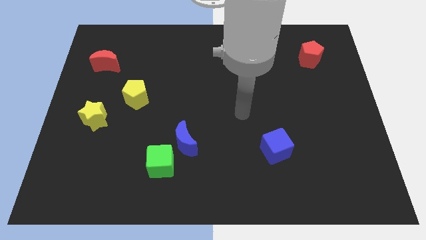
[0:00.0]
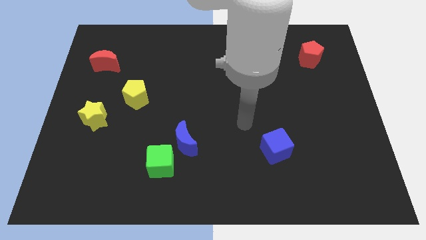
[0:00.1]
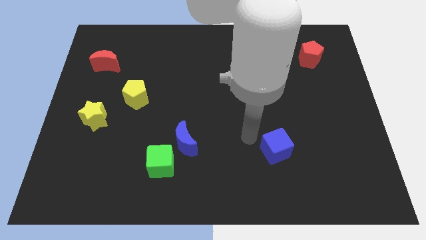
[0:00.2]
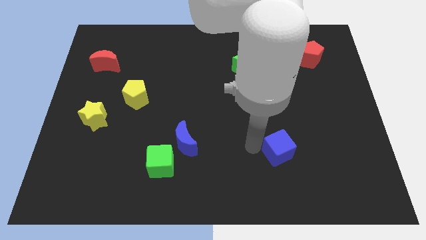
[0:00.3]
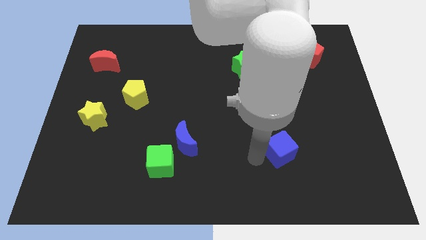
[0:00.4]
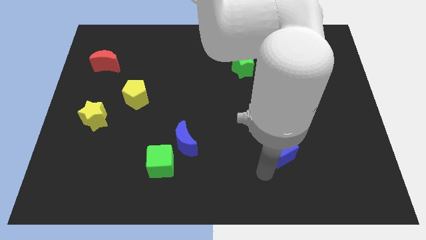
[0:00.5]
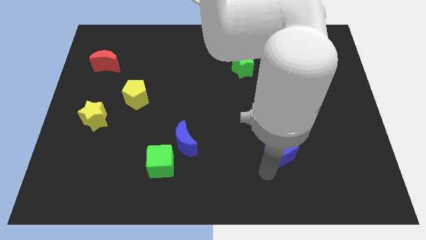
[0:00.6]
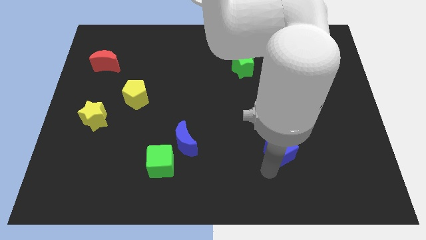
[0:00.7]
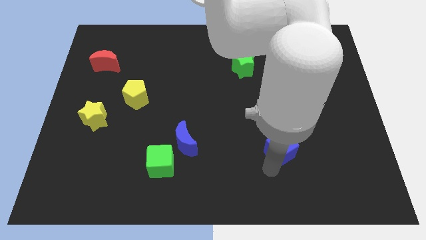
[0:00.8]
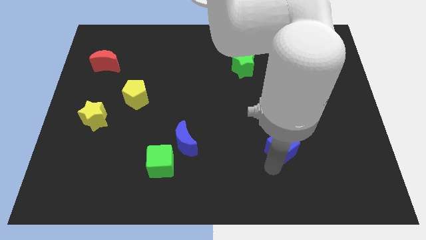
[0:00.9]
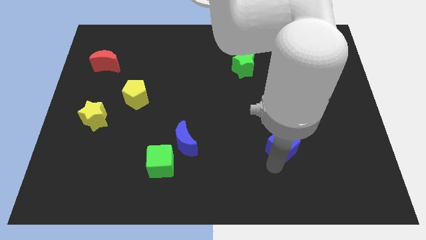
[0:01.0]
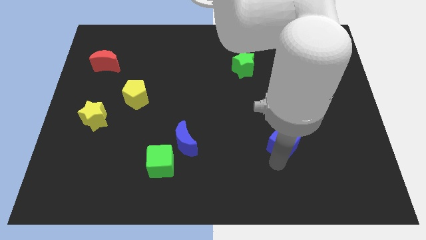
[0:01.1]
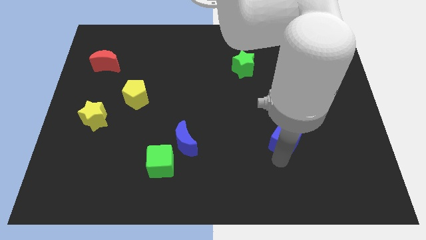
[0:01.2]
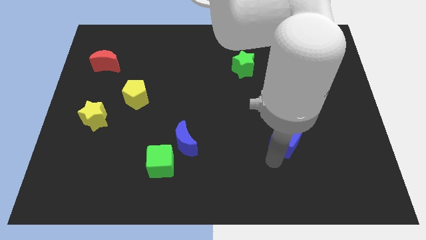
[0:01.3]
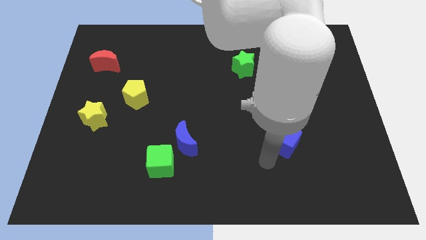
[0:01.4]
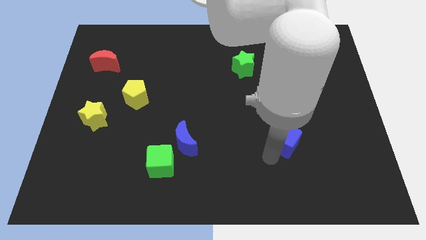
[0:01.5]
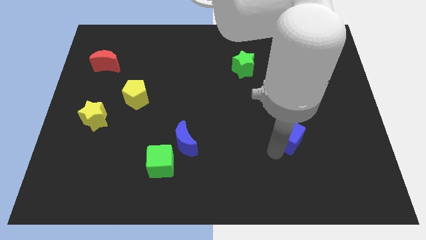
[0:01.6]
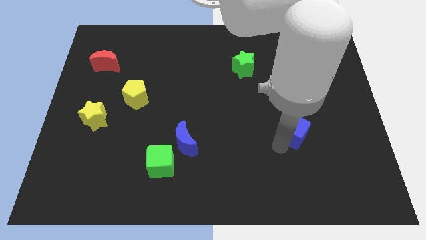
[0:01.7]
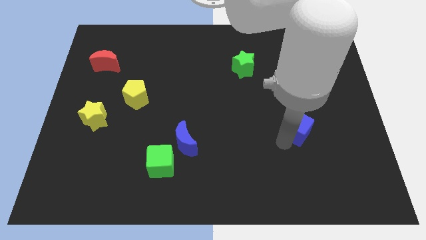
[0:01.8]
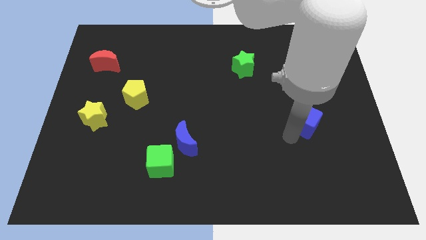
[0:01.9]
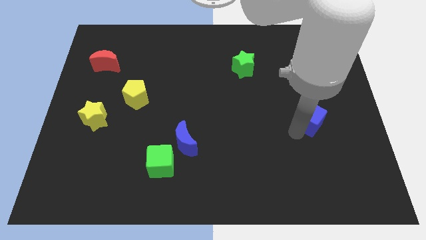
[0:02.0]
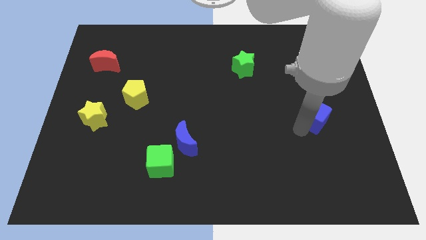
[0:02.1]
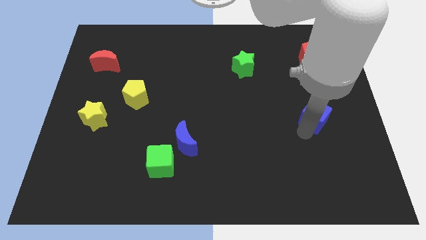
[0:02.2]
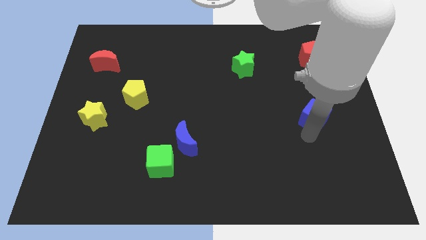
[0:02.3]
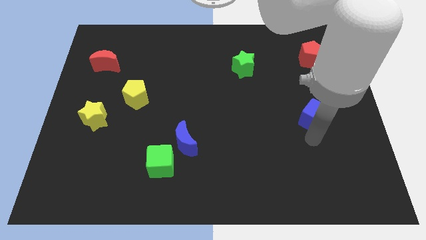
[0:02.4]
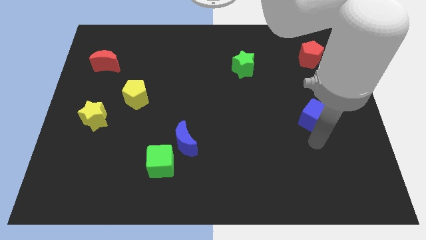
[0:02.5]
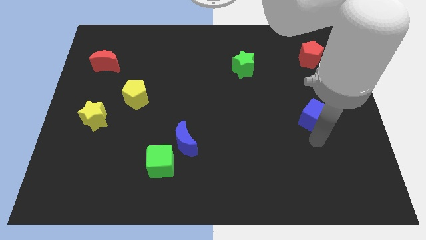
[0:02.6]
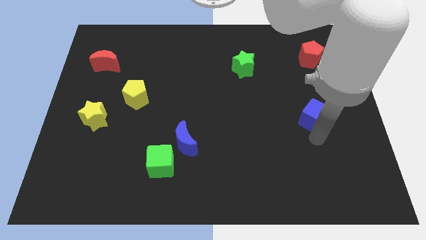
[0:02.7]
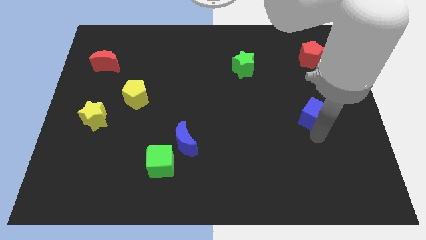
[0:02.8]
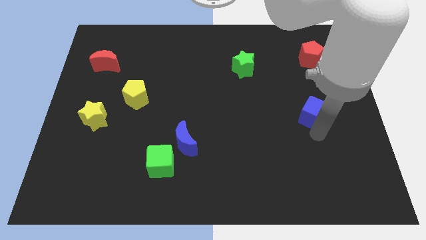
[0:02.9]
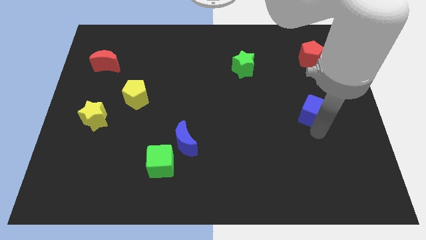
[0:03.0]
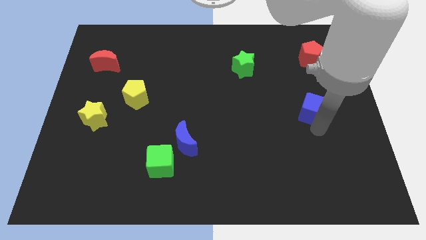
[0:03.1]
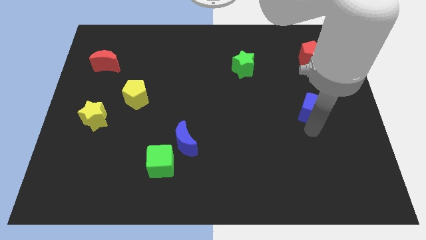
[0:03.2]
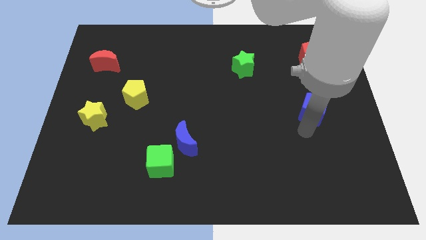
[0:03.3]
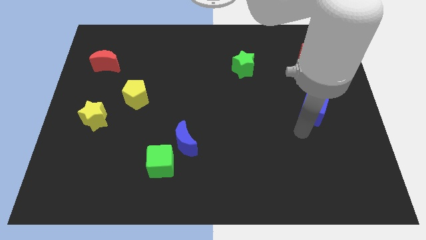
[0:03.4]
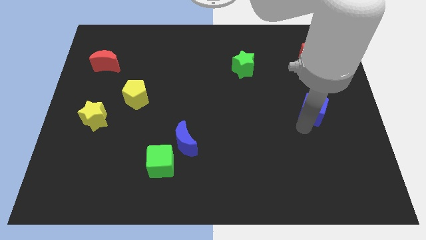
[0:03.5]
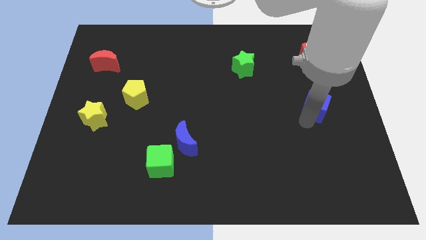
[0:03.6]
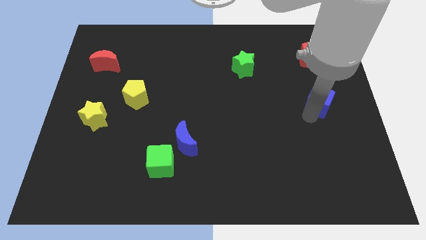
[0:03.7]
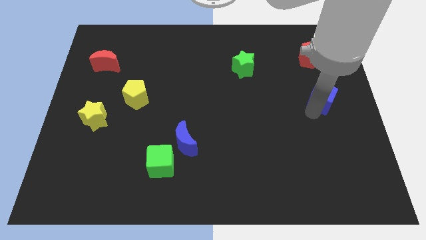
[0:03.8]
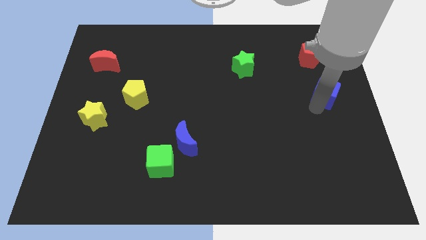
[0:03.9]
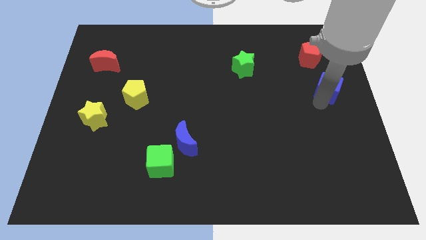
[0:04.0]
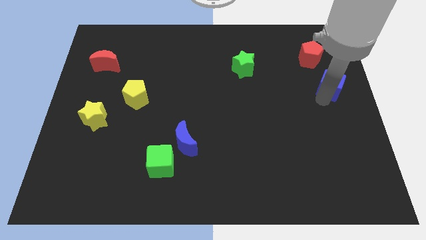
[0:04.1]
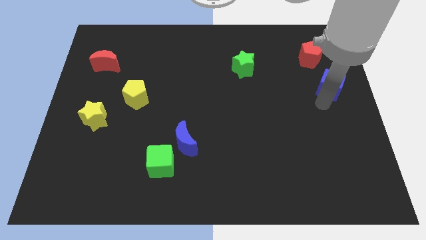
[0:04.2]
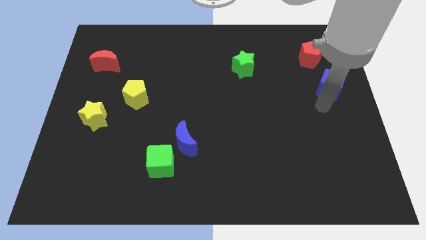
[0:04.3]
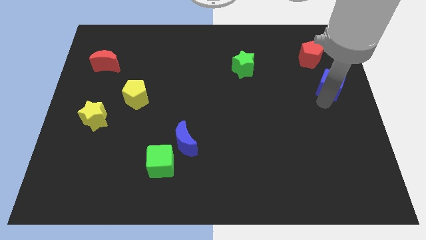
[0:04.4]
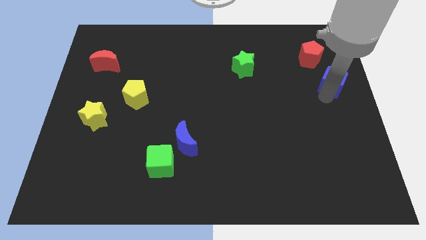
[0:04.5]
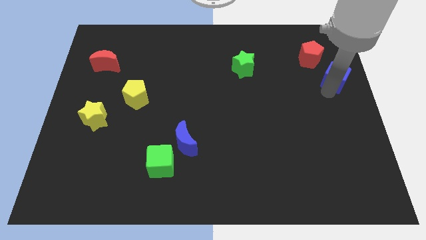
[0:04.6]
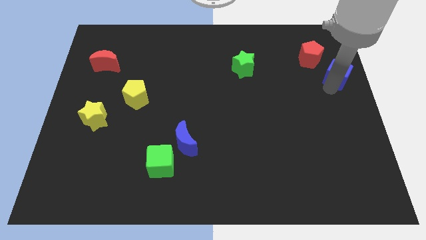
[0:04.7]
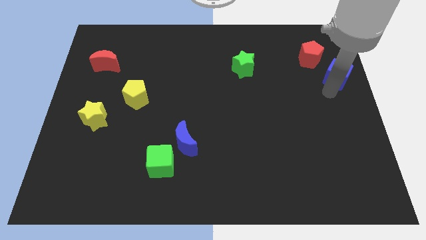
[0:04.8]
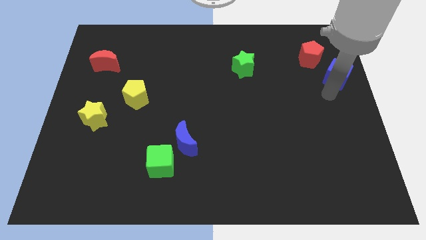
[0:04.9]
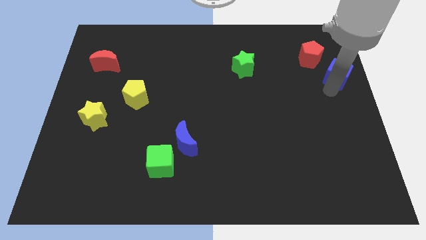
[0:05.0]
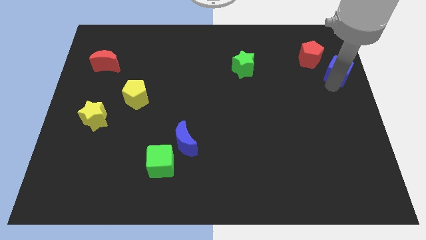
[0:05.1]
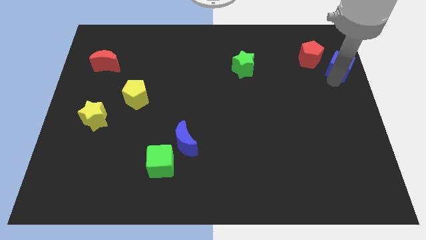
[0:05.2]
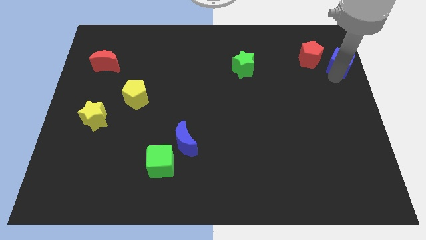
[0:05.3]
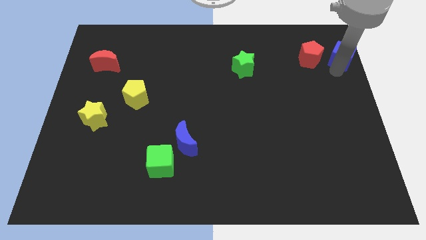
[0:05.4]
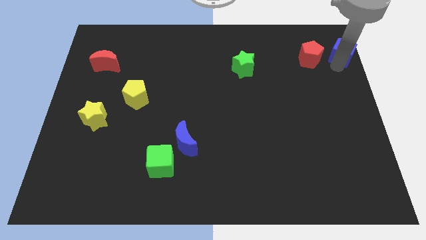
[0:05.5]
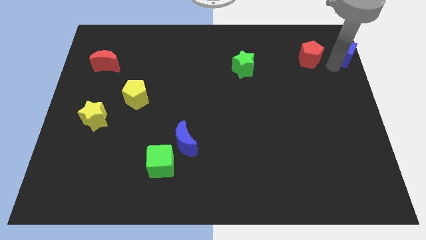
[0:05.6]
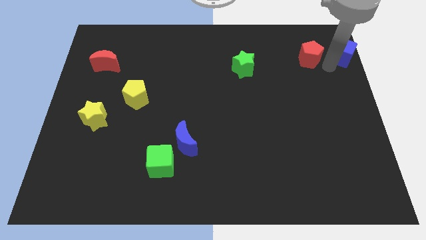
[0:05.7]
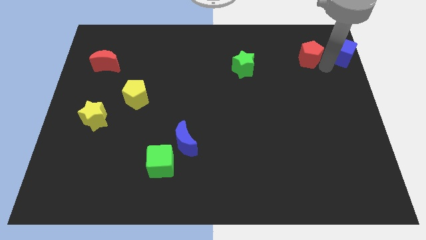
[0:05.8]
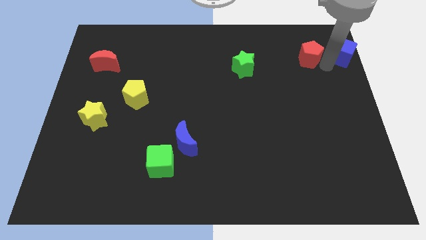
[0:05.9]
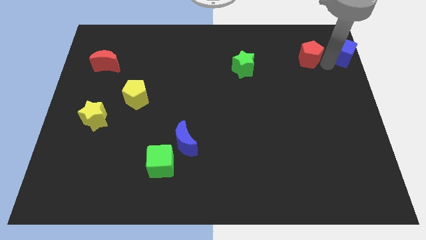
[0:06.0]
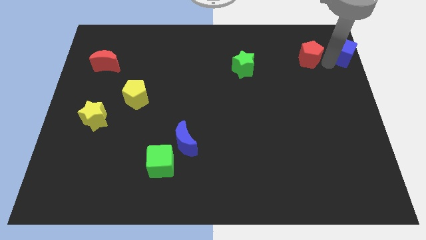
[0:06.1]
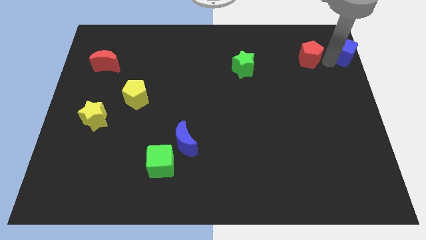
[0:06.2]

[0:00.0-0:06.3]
push the blue cube to the top right of the board

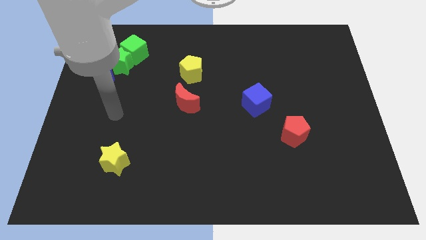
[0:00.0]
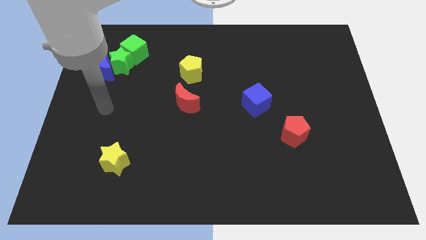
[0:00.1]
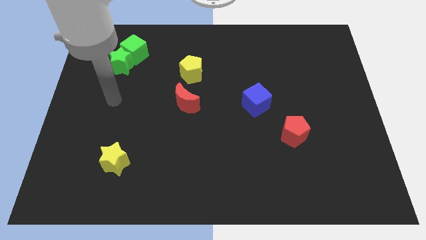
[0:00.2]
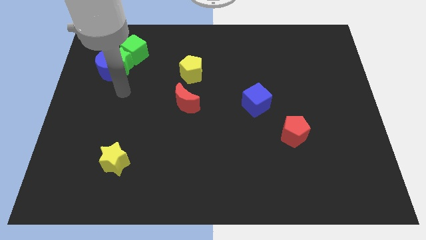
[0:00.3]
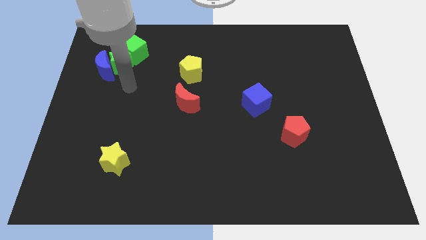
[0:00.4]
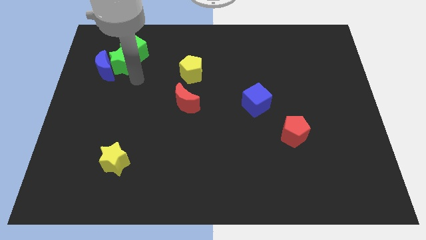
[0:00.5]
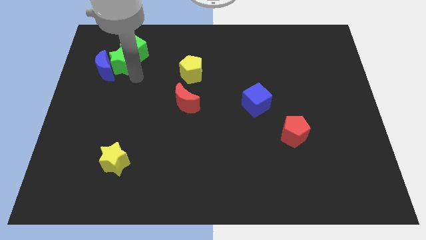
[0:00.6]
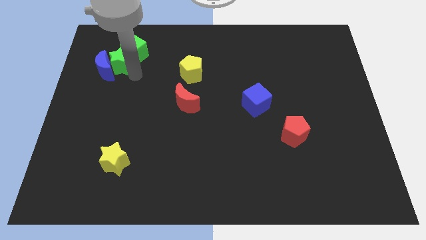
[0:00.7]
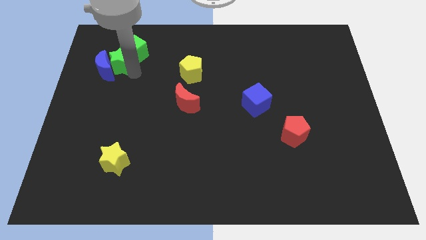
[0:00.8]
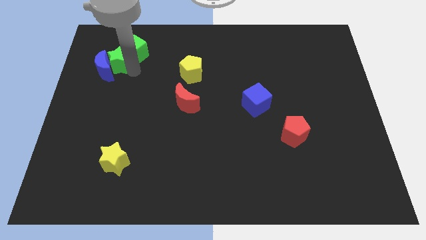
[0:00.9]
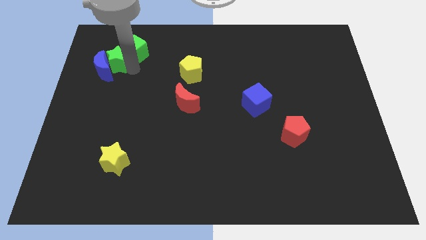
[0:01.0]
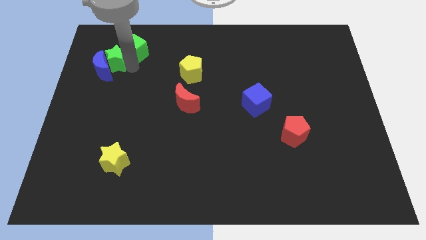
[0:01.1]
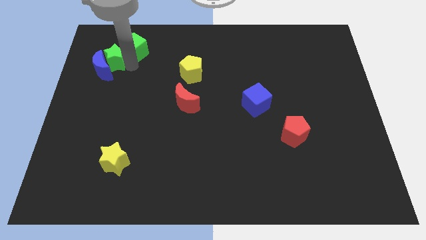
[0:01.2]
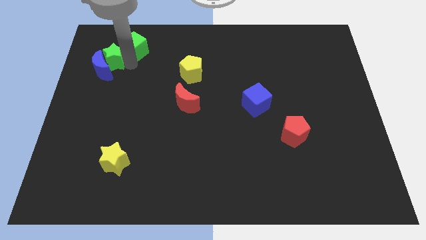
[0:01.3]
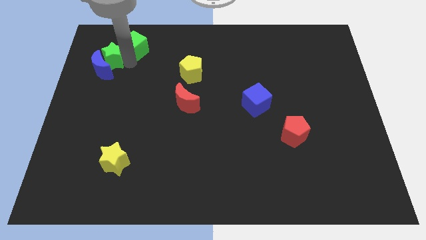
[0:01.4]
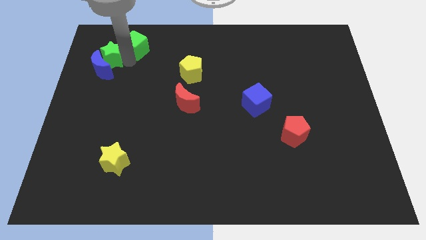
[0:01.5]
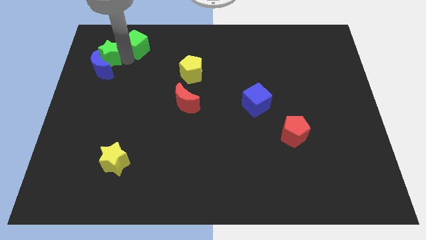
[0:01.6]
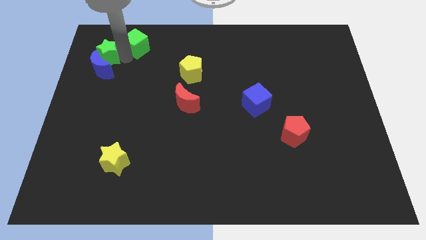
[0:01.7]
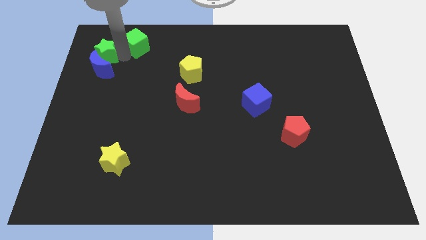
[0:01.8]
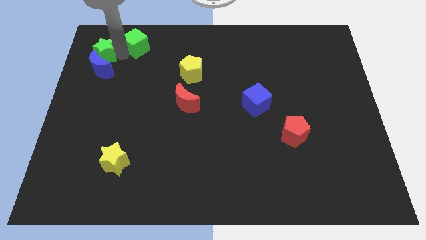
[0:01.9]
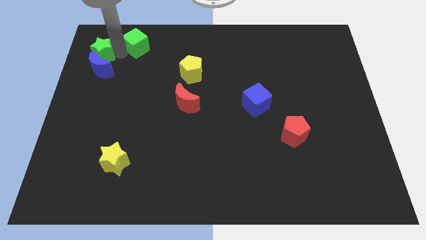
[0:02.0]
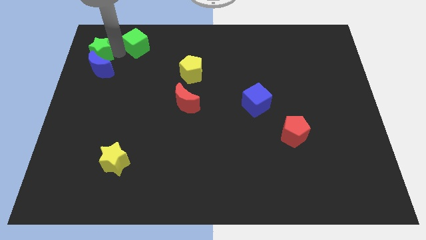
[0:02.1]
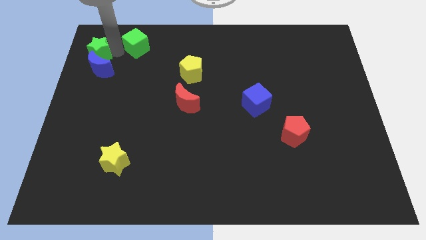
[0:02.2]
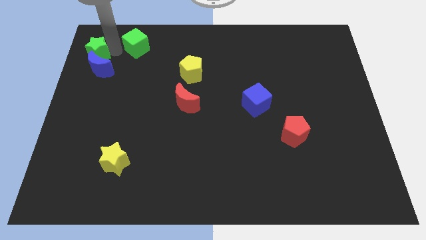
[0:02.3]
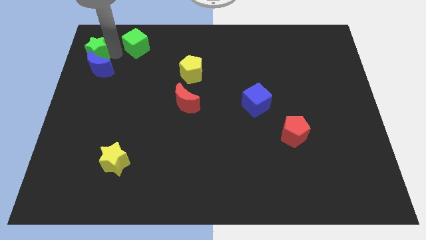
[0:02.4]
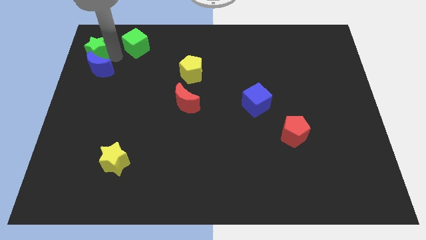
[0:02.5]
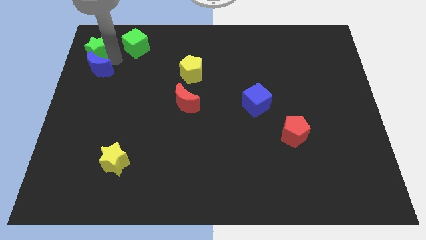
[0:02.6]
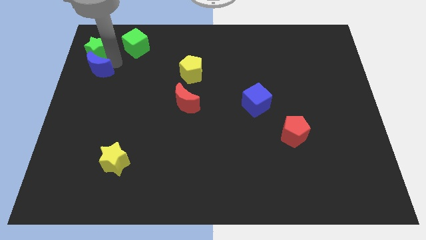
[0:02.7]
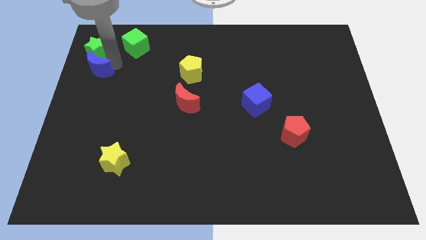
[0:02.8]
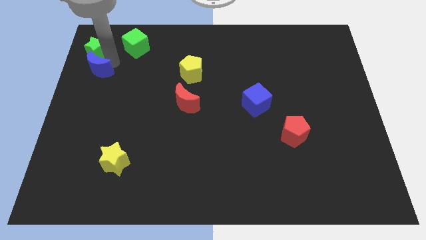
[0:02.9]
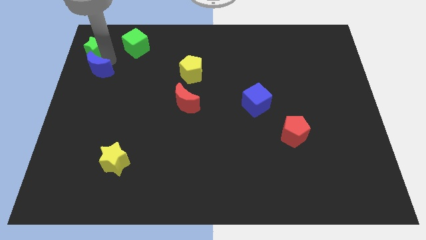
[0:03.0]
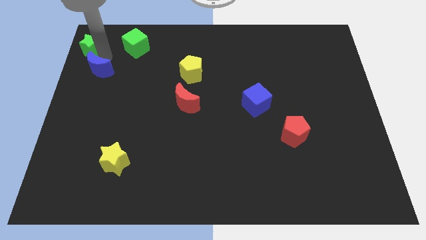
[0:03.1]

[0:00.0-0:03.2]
move the green star to the top left
